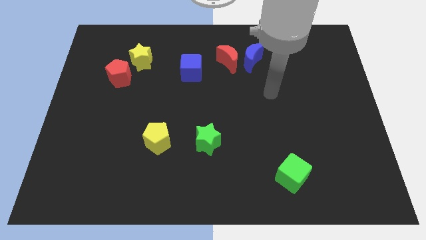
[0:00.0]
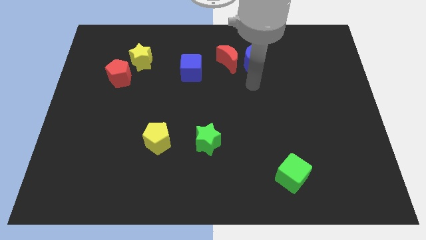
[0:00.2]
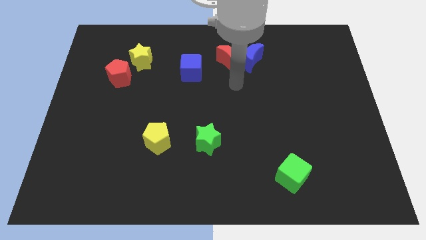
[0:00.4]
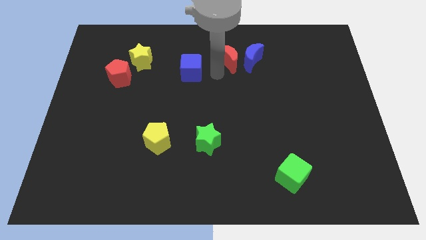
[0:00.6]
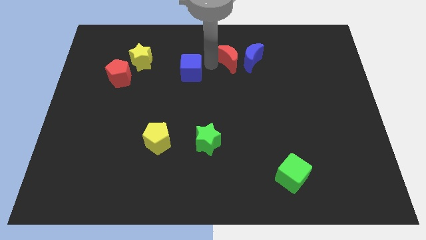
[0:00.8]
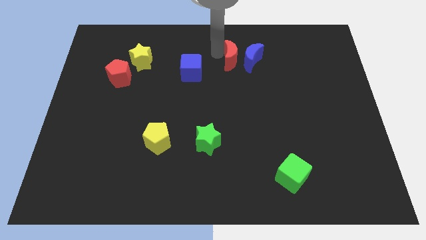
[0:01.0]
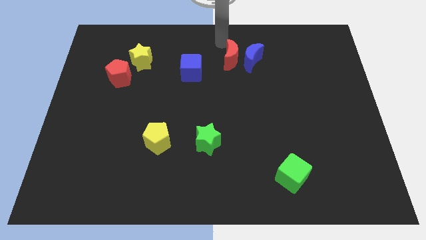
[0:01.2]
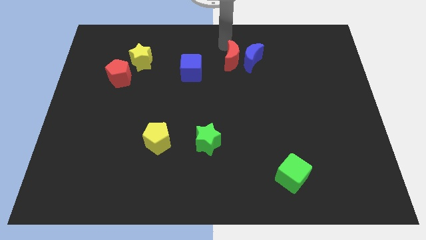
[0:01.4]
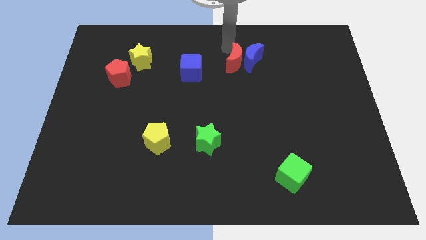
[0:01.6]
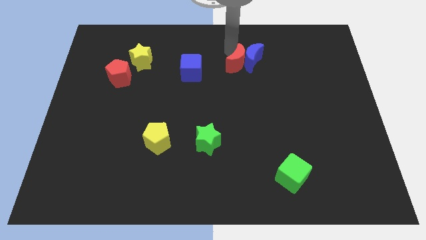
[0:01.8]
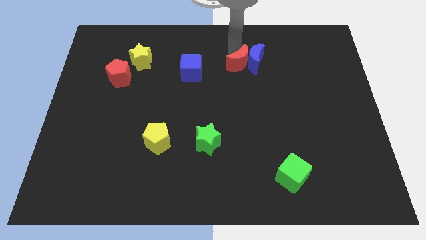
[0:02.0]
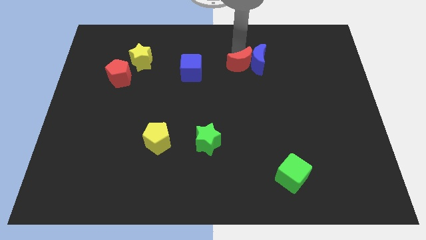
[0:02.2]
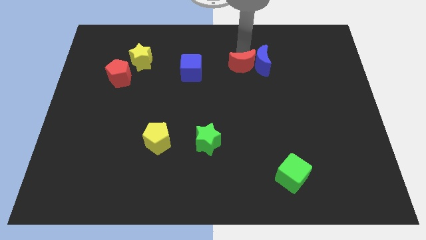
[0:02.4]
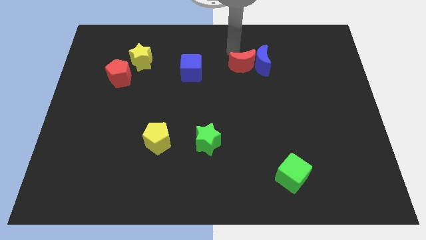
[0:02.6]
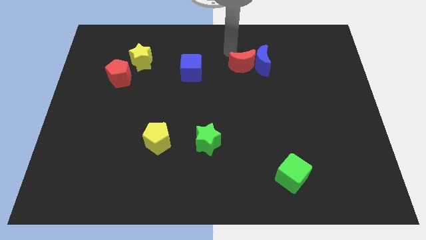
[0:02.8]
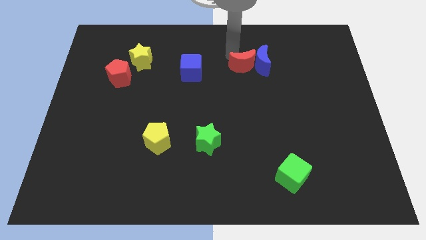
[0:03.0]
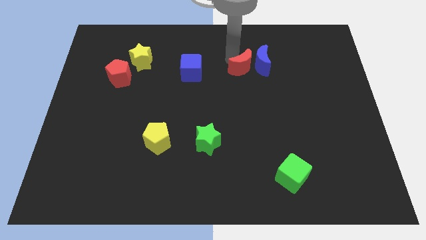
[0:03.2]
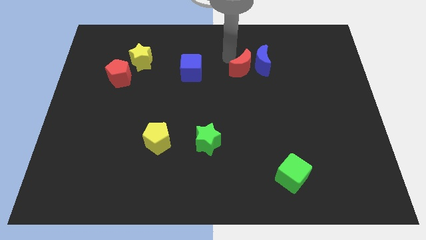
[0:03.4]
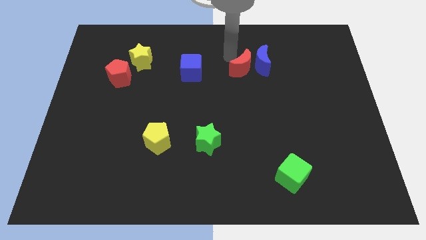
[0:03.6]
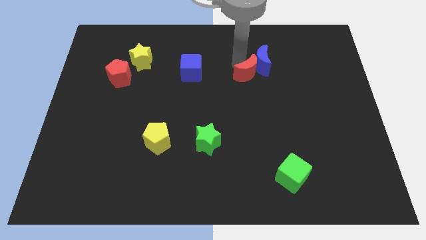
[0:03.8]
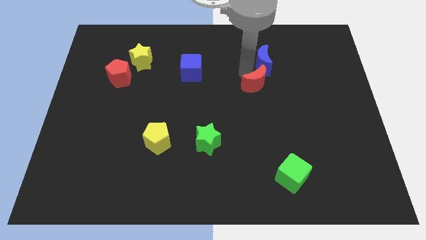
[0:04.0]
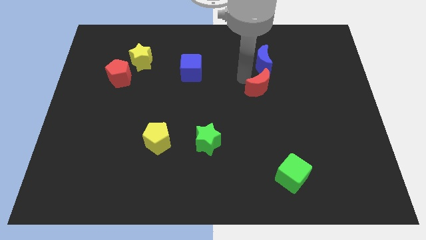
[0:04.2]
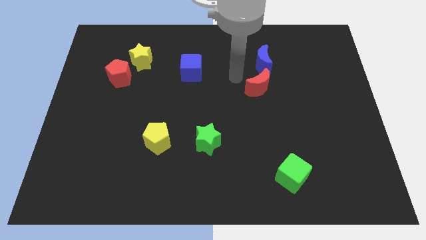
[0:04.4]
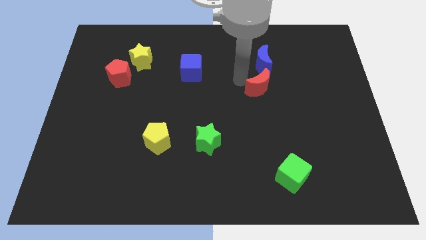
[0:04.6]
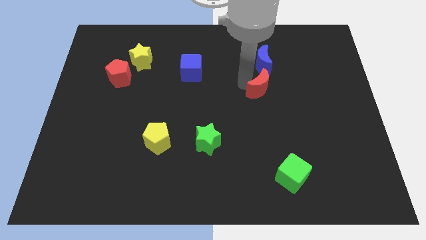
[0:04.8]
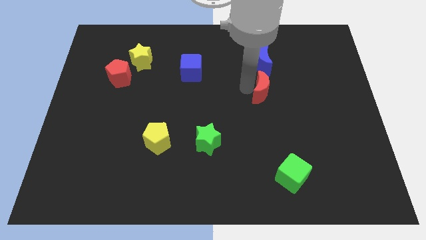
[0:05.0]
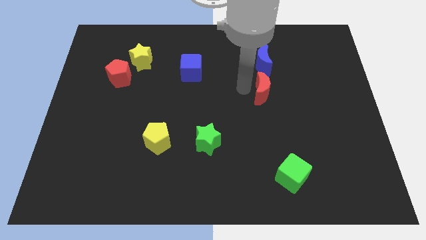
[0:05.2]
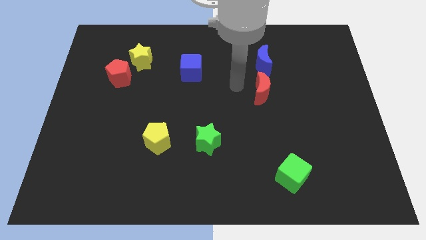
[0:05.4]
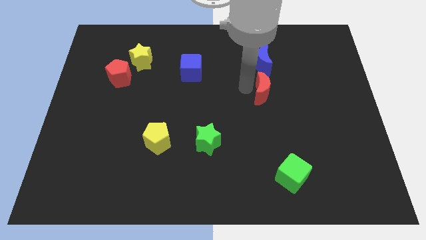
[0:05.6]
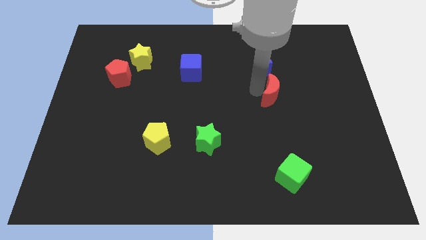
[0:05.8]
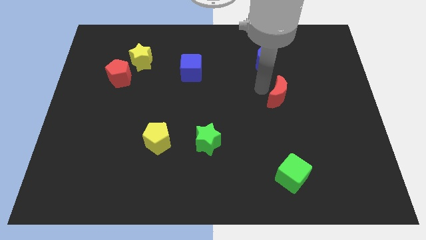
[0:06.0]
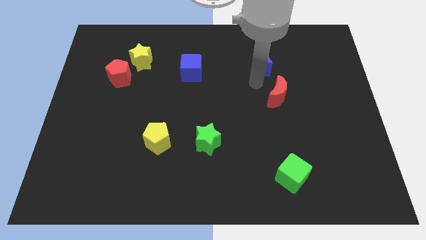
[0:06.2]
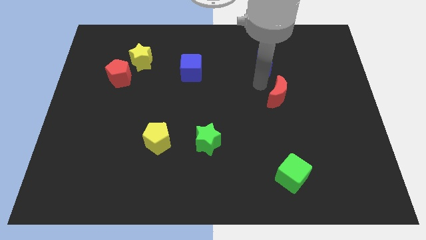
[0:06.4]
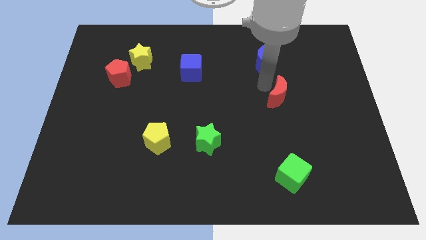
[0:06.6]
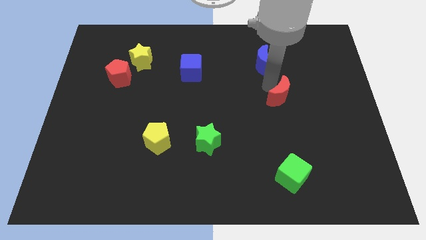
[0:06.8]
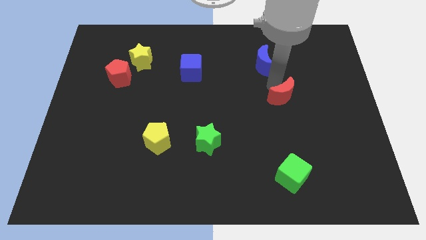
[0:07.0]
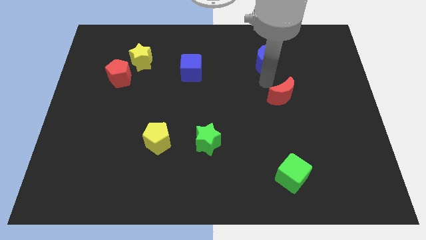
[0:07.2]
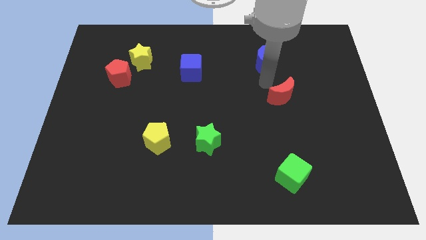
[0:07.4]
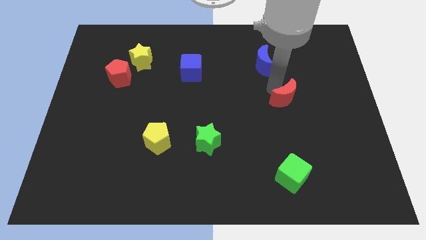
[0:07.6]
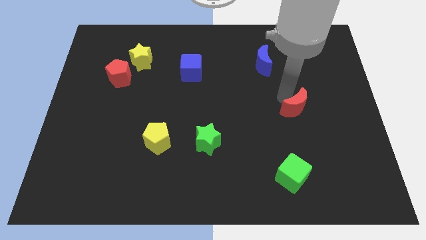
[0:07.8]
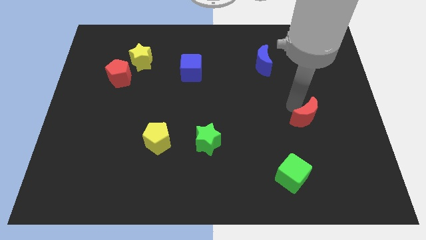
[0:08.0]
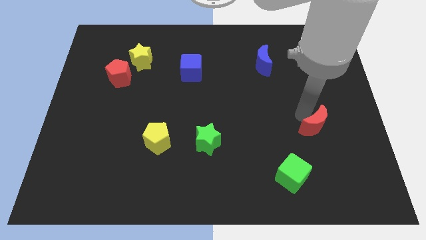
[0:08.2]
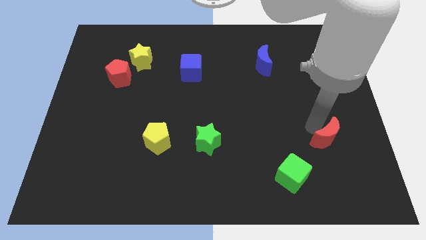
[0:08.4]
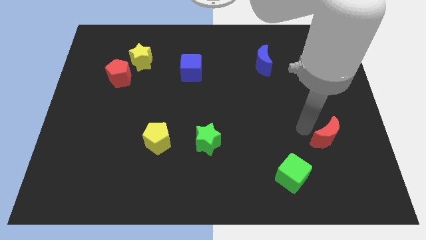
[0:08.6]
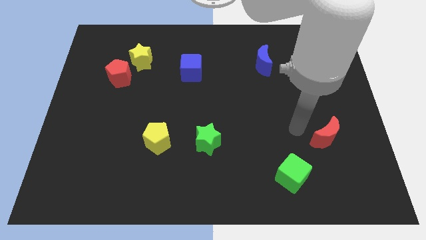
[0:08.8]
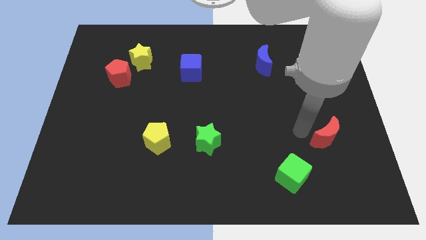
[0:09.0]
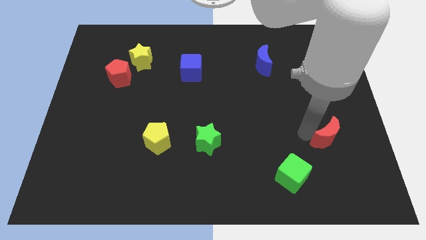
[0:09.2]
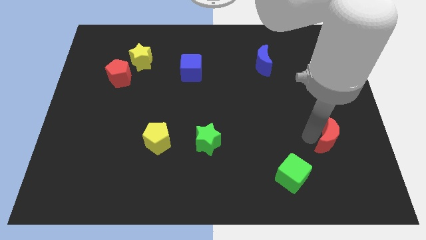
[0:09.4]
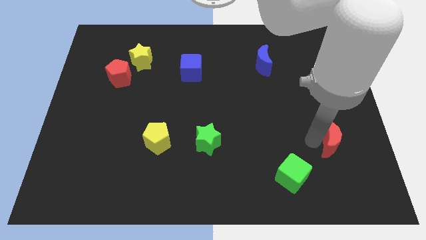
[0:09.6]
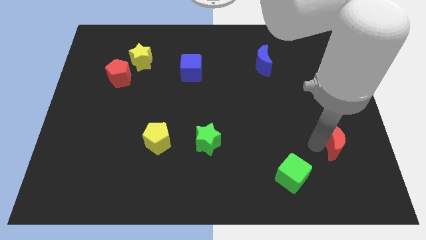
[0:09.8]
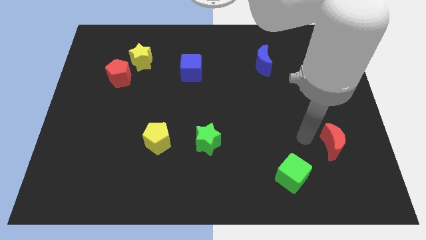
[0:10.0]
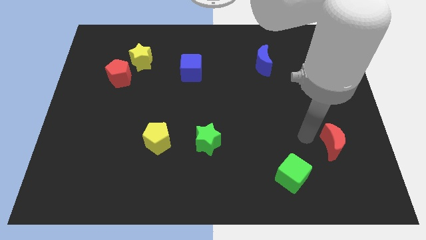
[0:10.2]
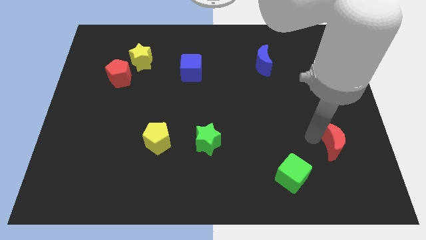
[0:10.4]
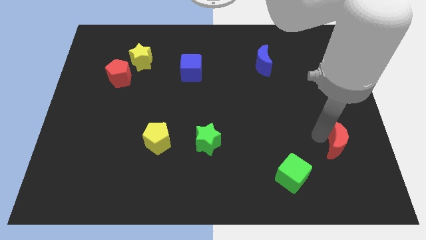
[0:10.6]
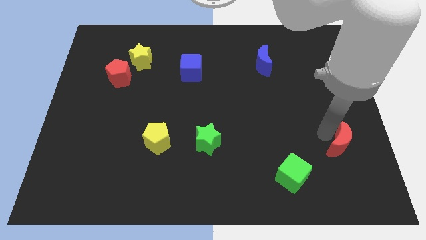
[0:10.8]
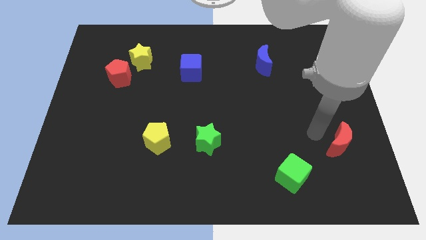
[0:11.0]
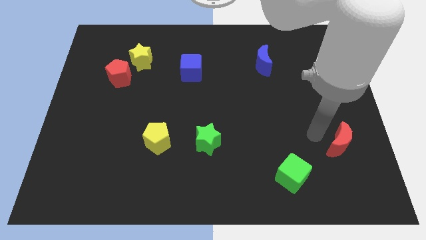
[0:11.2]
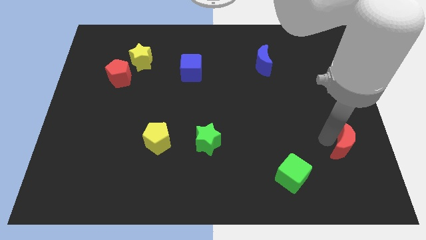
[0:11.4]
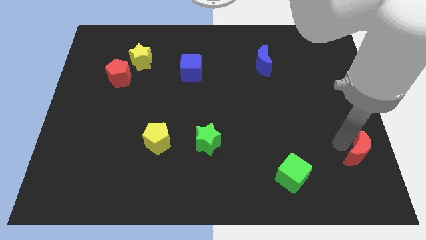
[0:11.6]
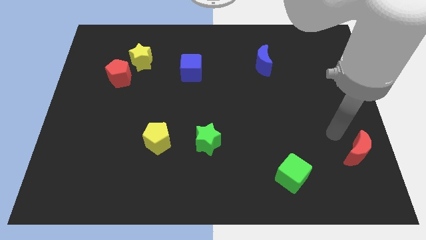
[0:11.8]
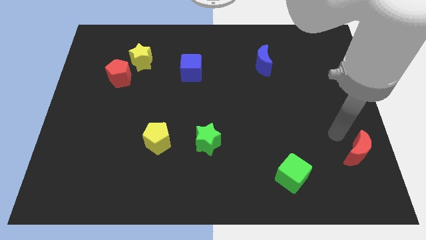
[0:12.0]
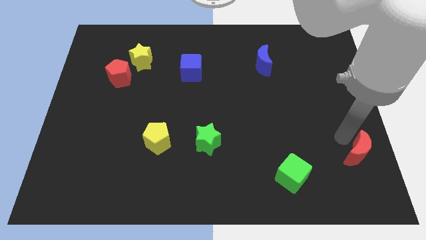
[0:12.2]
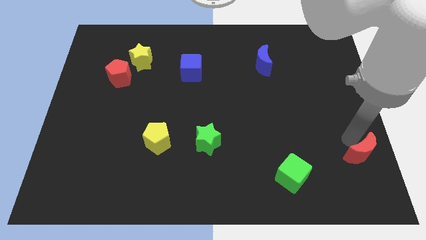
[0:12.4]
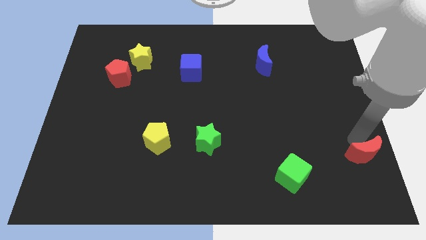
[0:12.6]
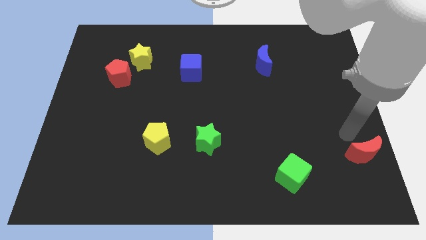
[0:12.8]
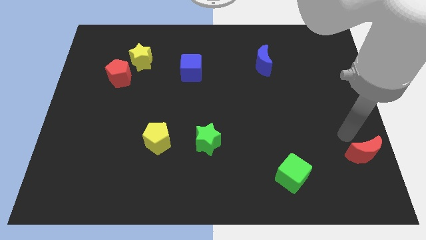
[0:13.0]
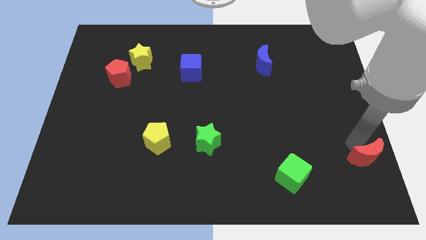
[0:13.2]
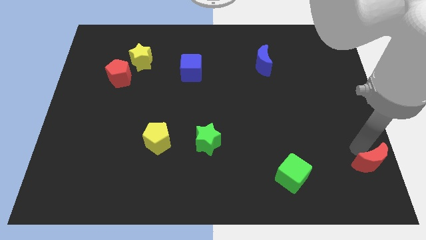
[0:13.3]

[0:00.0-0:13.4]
push the red moon to the bottom right of the board
